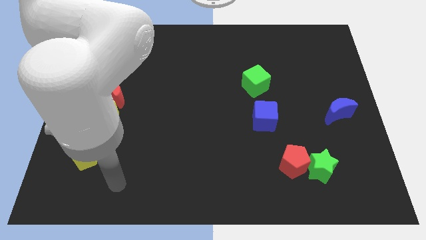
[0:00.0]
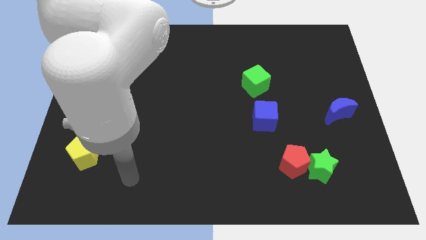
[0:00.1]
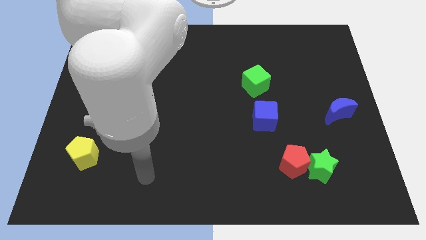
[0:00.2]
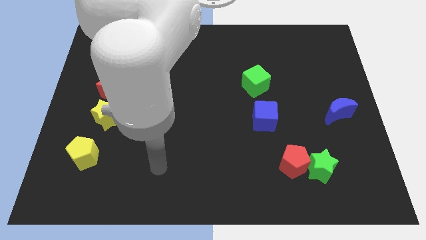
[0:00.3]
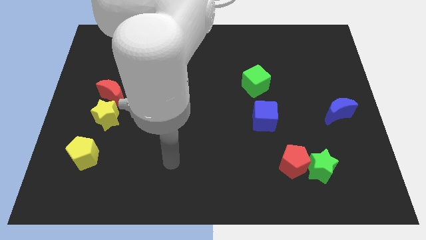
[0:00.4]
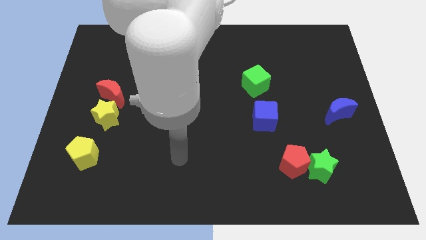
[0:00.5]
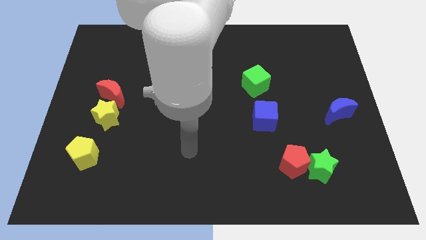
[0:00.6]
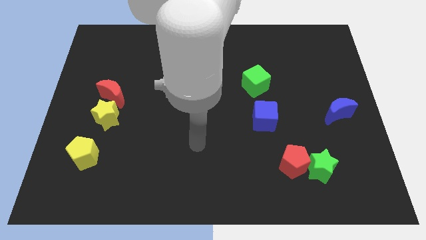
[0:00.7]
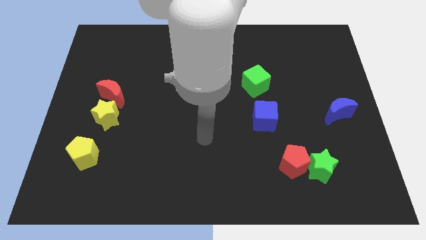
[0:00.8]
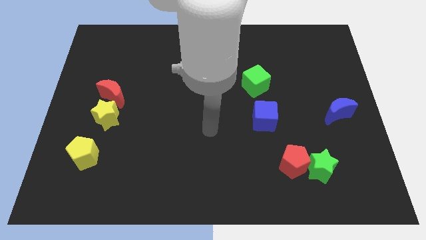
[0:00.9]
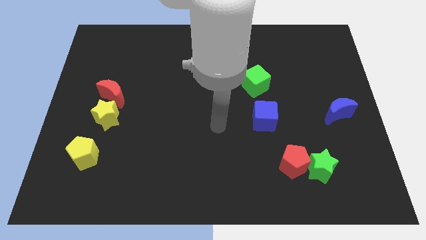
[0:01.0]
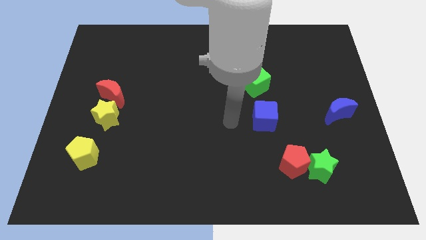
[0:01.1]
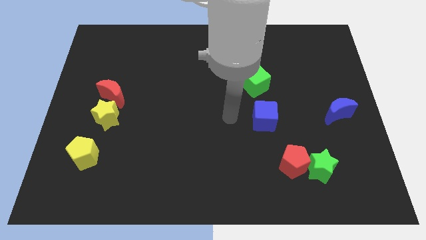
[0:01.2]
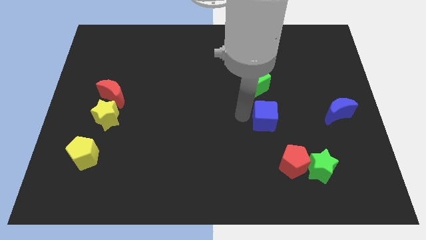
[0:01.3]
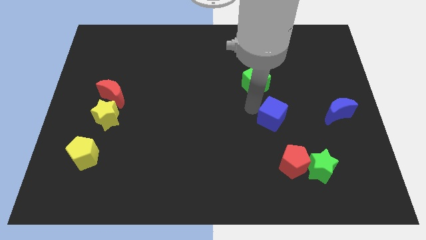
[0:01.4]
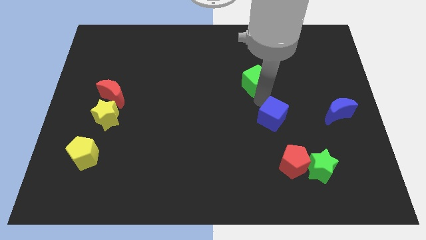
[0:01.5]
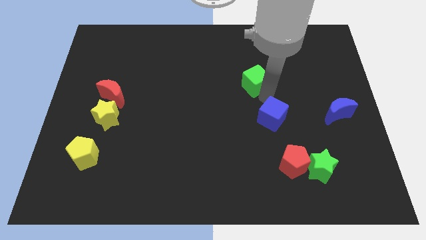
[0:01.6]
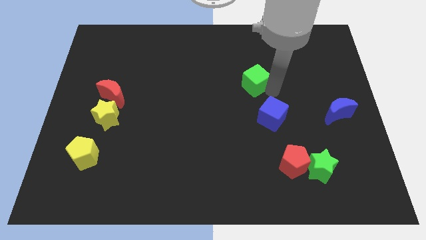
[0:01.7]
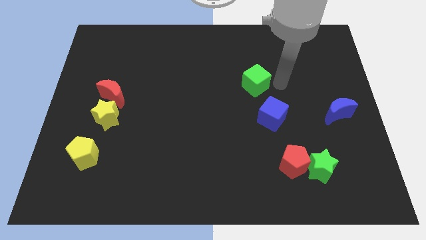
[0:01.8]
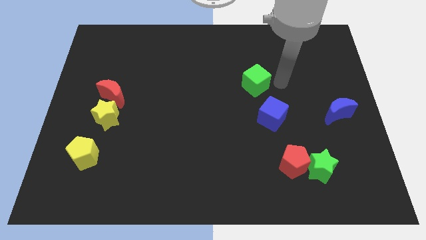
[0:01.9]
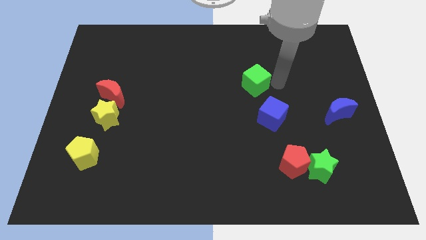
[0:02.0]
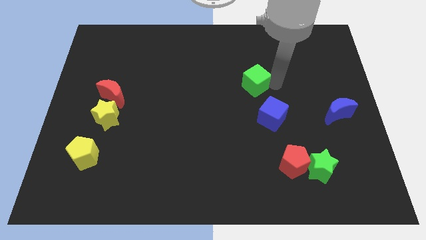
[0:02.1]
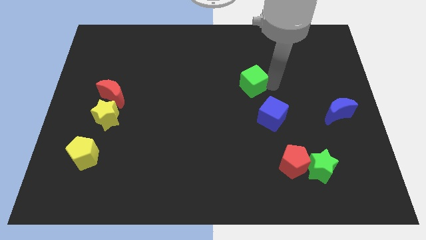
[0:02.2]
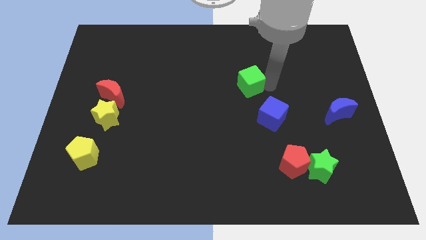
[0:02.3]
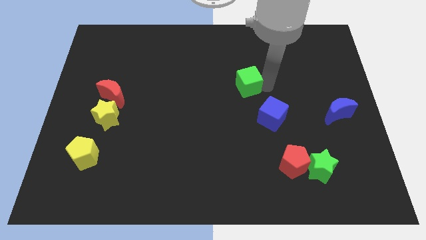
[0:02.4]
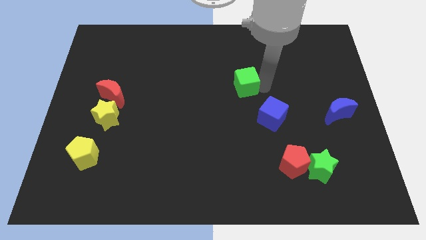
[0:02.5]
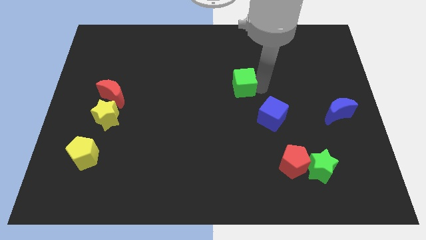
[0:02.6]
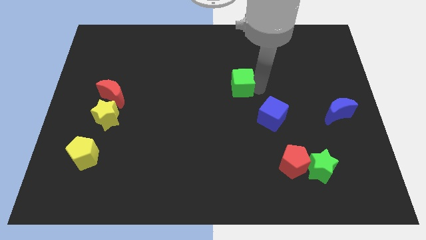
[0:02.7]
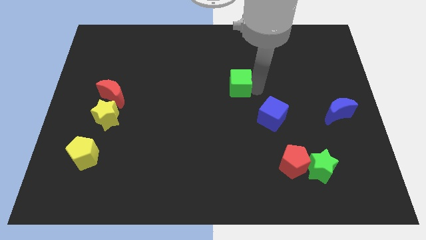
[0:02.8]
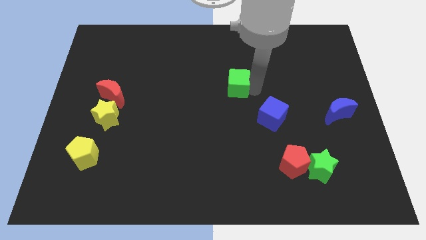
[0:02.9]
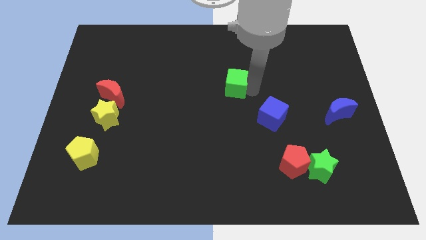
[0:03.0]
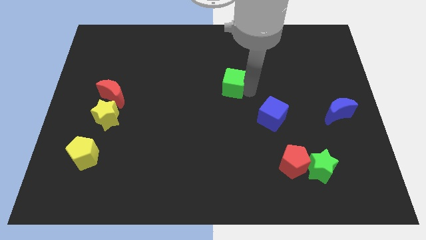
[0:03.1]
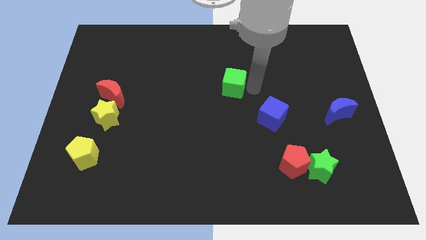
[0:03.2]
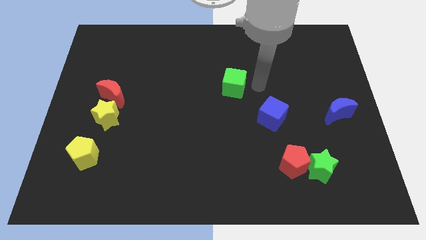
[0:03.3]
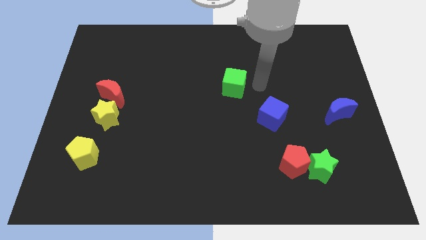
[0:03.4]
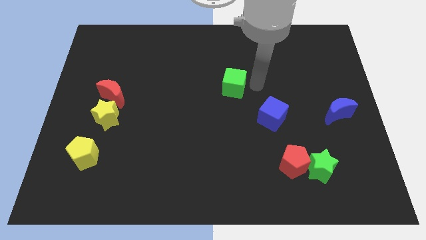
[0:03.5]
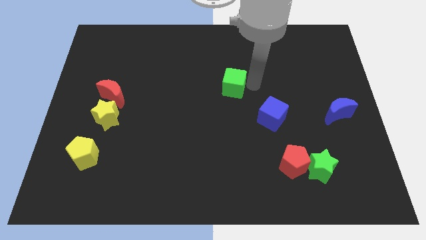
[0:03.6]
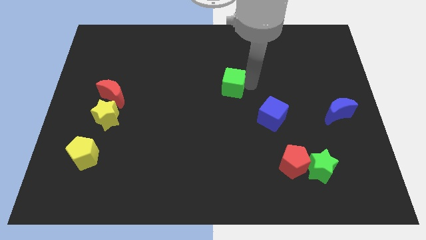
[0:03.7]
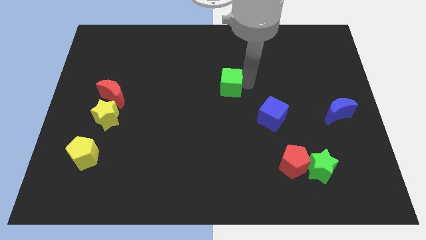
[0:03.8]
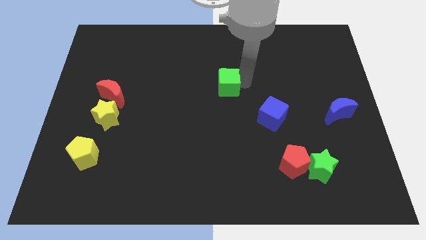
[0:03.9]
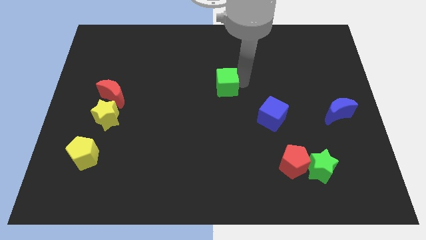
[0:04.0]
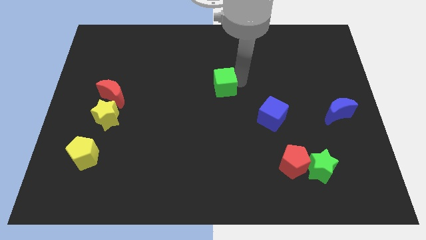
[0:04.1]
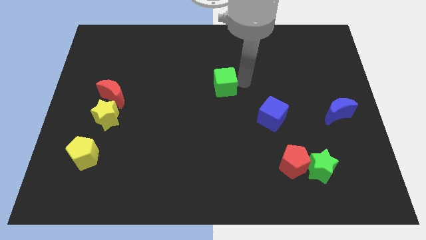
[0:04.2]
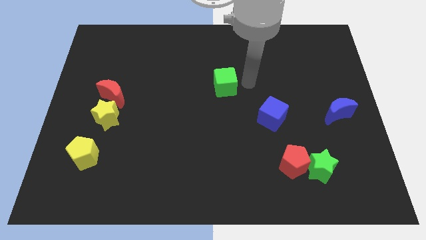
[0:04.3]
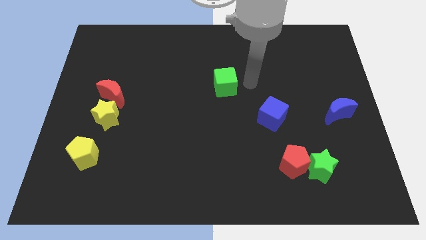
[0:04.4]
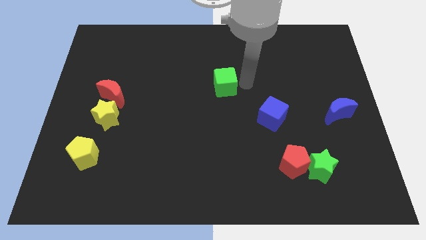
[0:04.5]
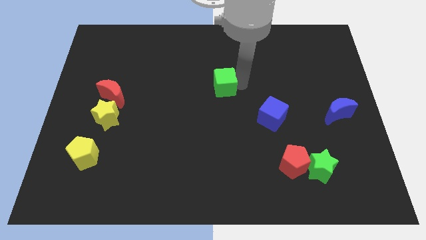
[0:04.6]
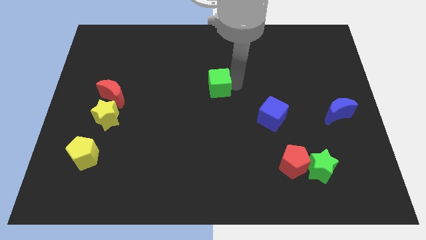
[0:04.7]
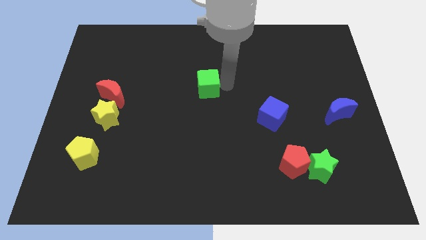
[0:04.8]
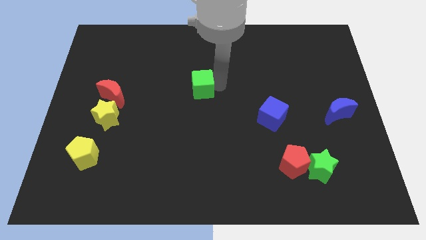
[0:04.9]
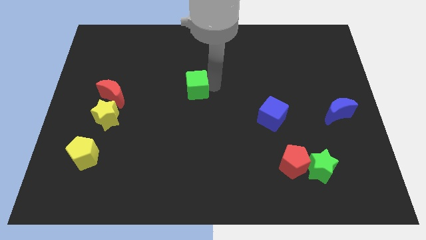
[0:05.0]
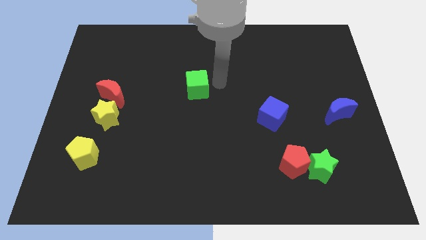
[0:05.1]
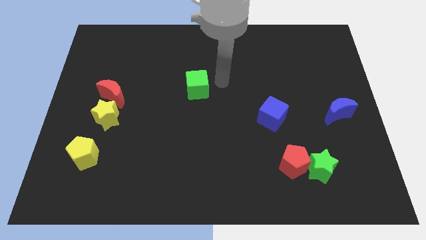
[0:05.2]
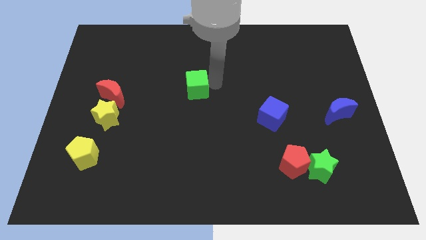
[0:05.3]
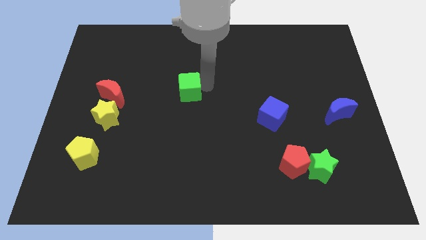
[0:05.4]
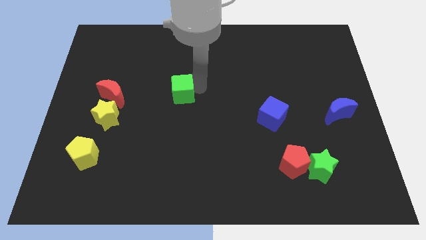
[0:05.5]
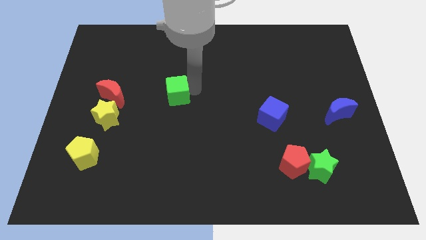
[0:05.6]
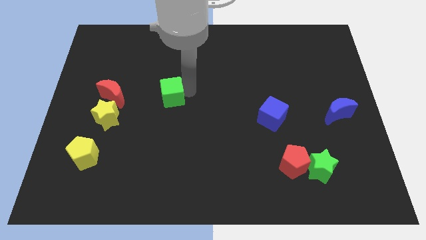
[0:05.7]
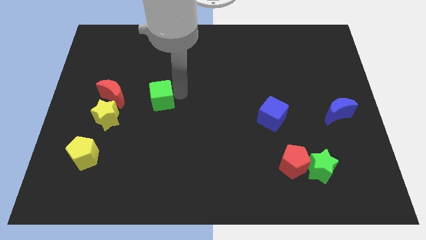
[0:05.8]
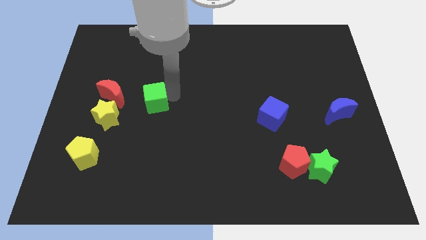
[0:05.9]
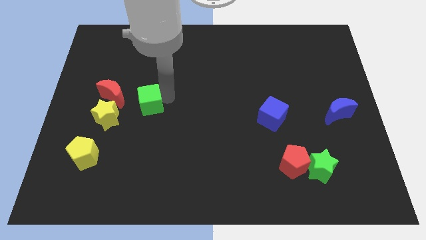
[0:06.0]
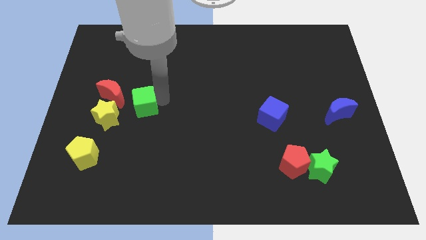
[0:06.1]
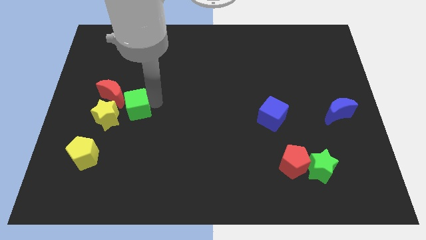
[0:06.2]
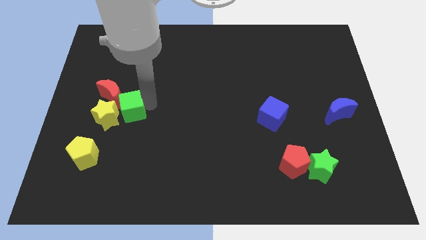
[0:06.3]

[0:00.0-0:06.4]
push the green cube towards the yellow star

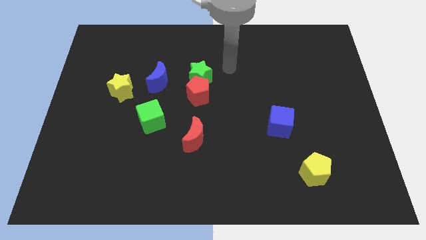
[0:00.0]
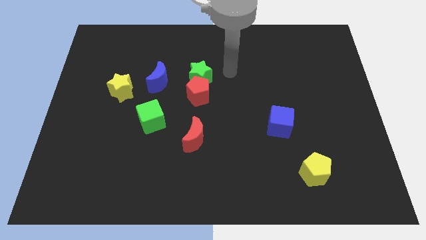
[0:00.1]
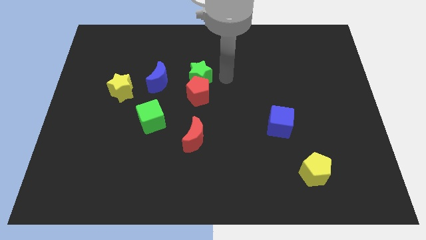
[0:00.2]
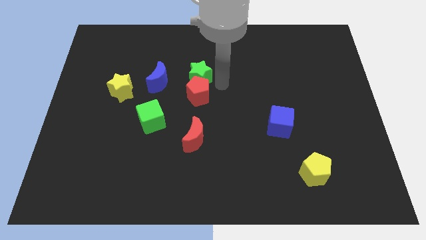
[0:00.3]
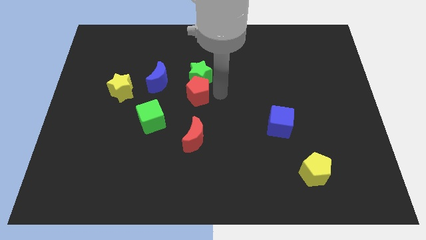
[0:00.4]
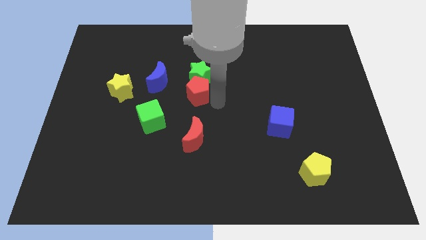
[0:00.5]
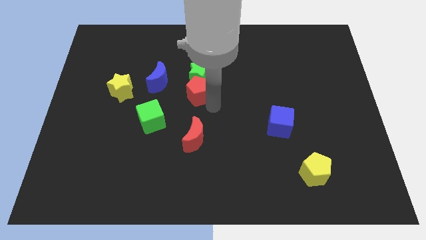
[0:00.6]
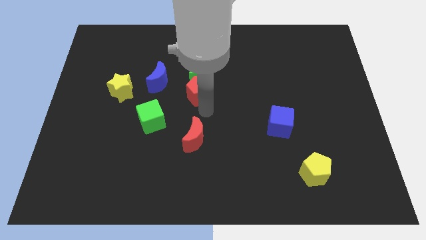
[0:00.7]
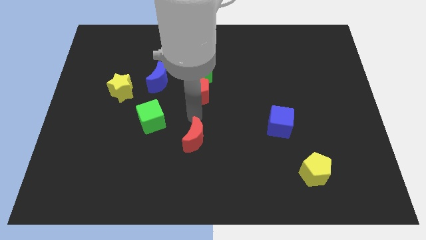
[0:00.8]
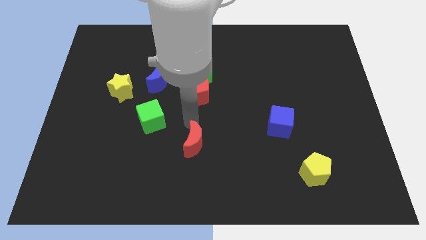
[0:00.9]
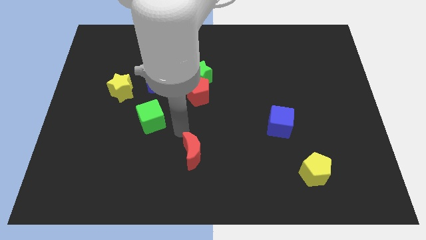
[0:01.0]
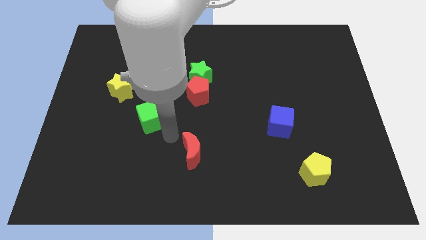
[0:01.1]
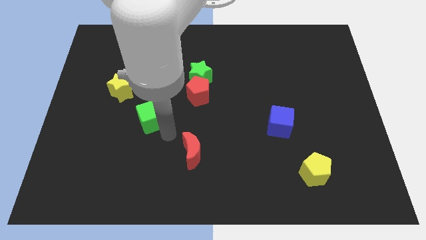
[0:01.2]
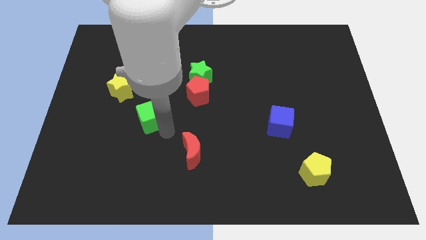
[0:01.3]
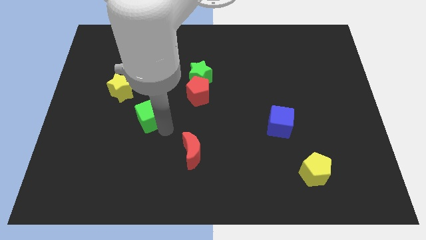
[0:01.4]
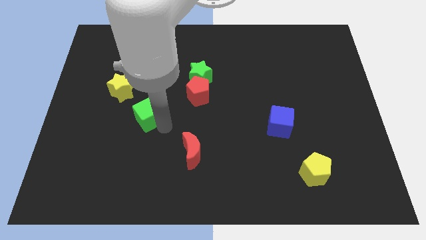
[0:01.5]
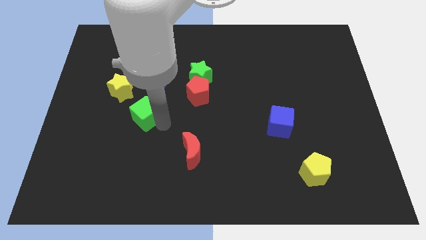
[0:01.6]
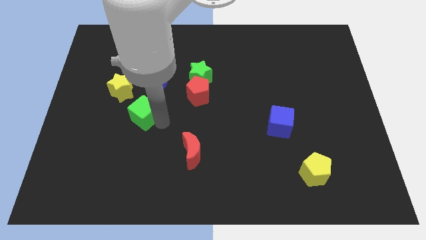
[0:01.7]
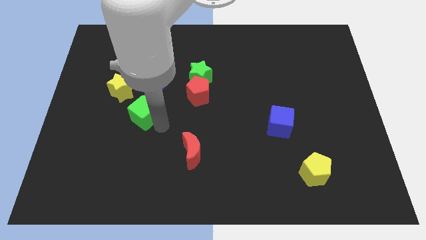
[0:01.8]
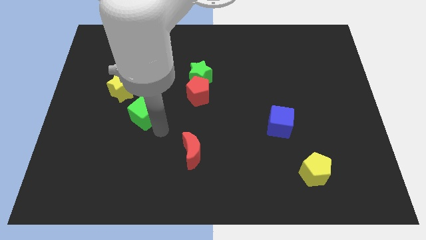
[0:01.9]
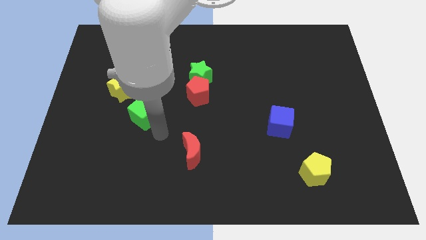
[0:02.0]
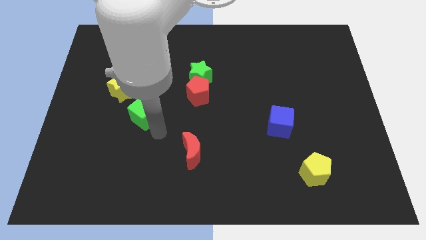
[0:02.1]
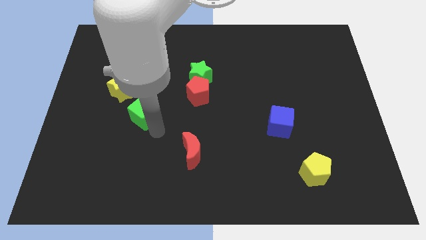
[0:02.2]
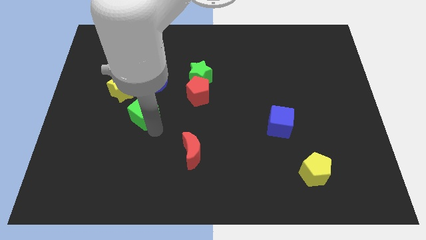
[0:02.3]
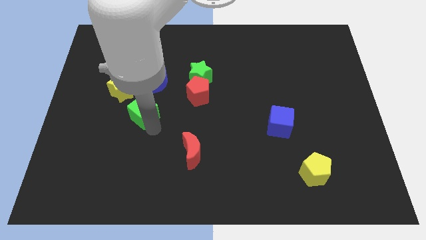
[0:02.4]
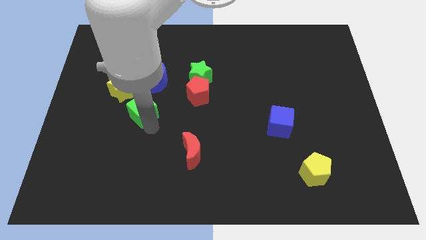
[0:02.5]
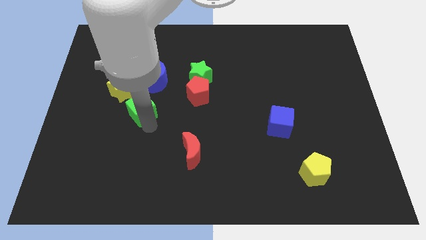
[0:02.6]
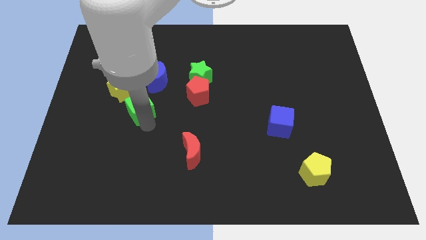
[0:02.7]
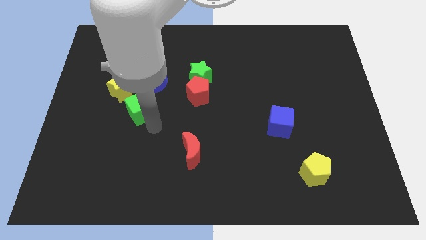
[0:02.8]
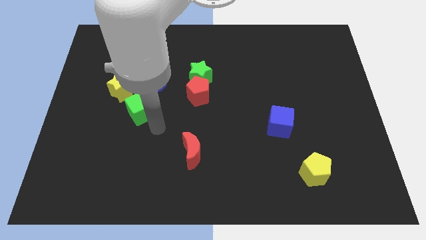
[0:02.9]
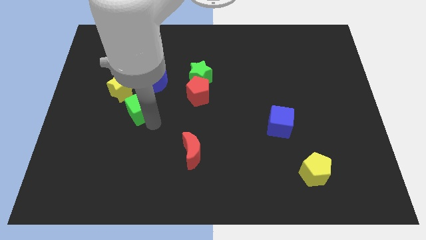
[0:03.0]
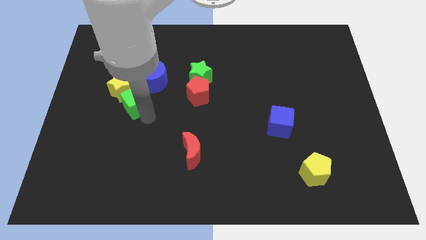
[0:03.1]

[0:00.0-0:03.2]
move the green cube close to the yellow star
